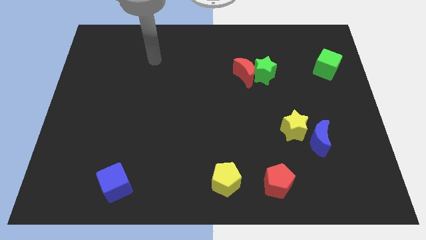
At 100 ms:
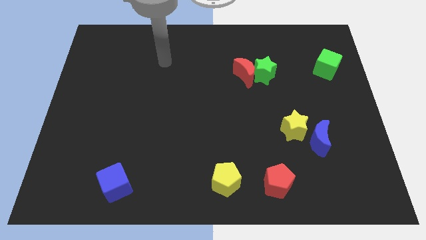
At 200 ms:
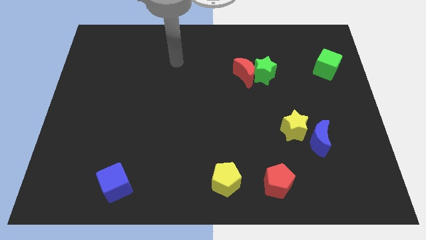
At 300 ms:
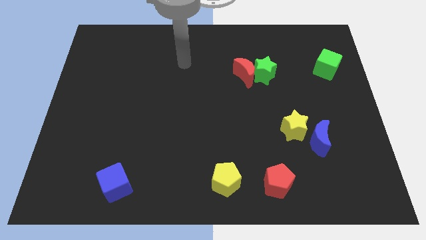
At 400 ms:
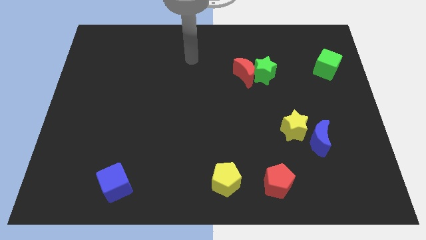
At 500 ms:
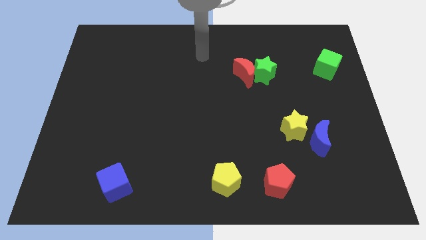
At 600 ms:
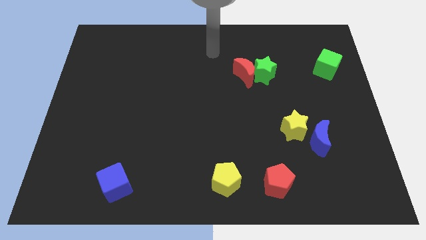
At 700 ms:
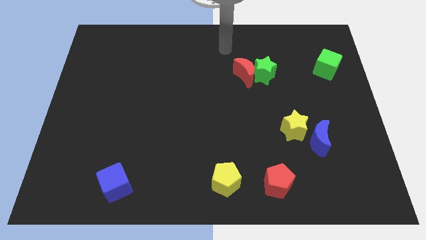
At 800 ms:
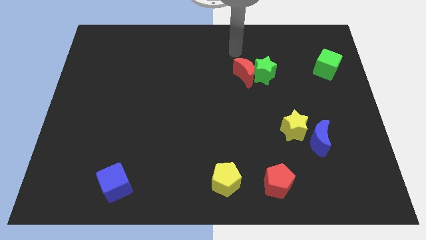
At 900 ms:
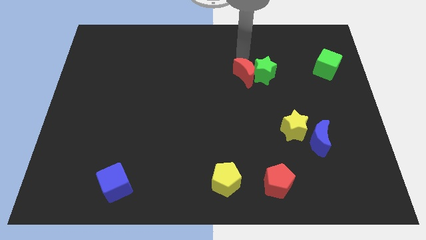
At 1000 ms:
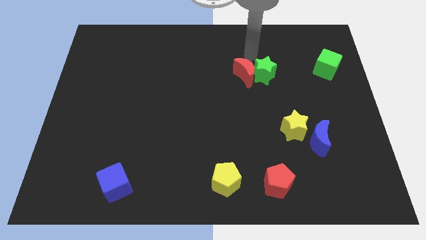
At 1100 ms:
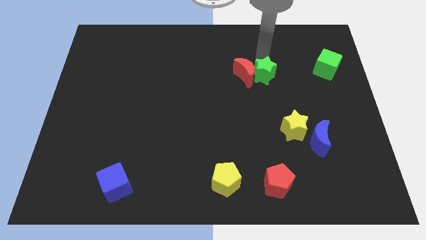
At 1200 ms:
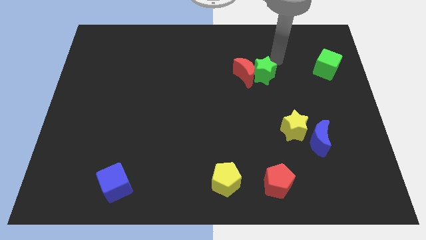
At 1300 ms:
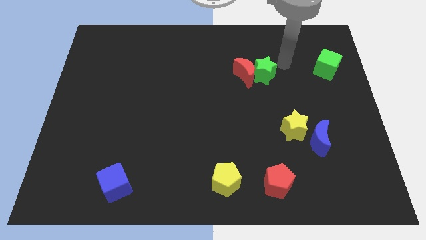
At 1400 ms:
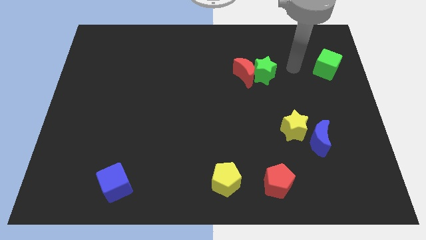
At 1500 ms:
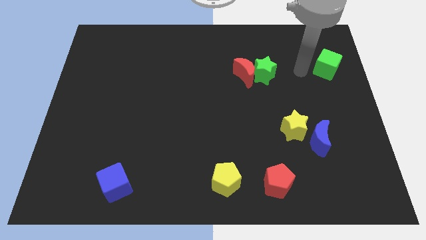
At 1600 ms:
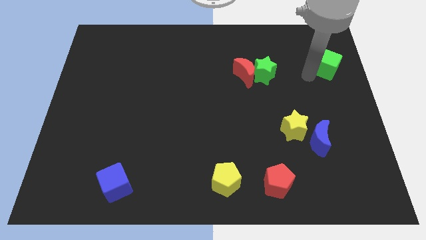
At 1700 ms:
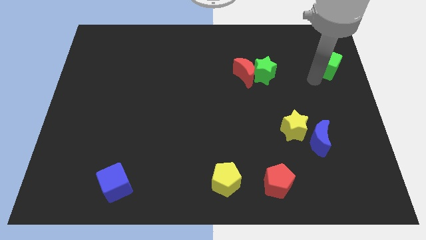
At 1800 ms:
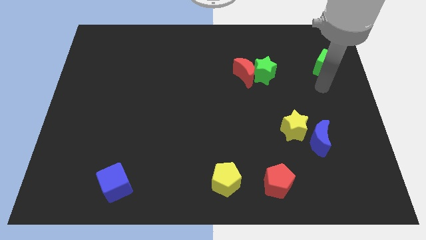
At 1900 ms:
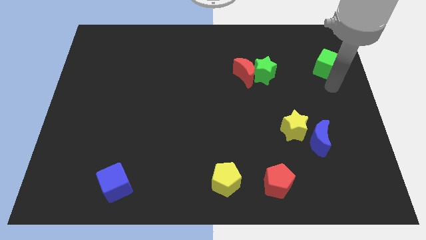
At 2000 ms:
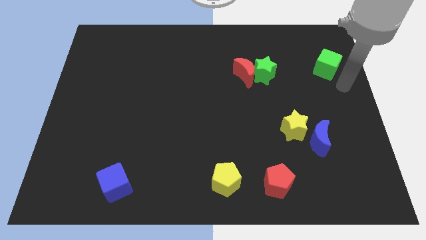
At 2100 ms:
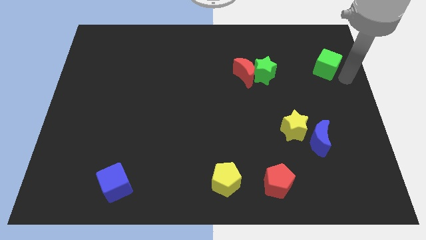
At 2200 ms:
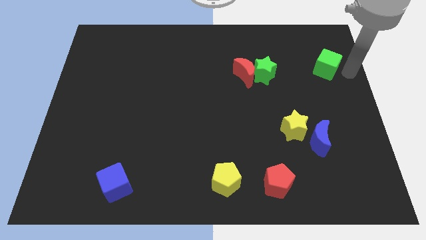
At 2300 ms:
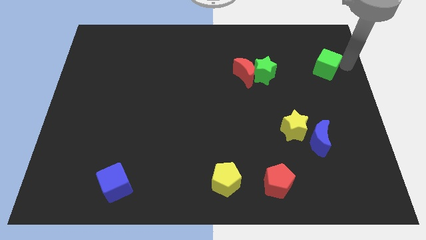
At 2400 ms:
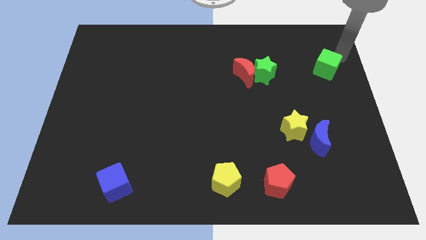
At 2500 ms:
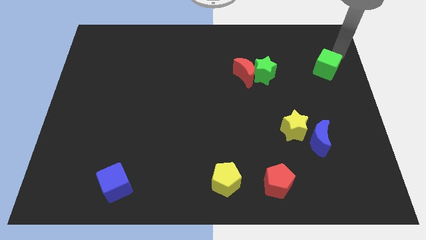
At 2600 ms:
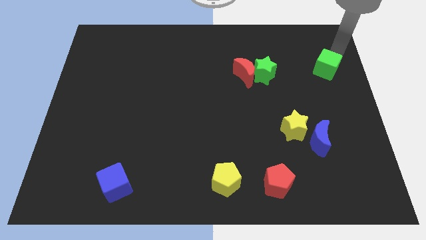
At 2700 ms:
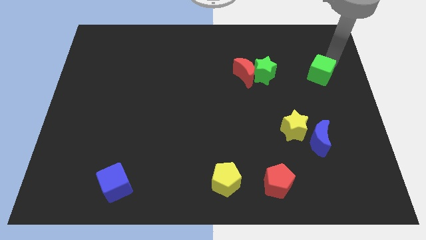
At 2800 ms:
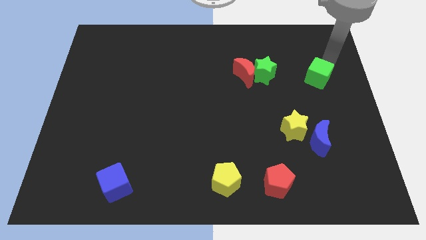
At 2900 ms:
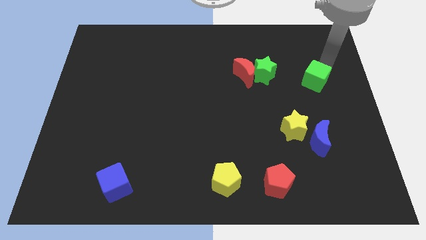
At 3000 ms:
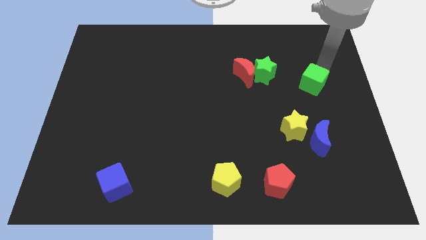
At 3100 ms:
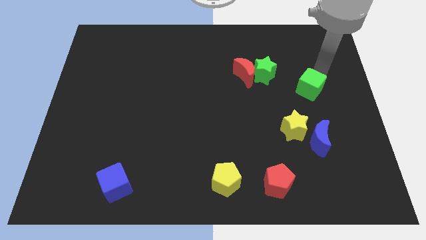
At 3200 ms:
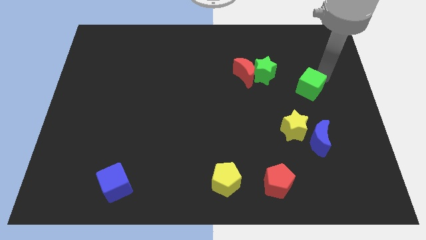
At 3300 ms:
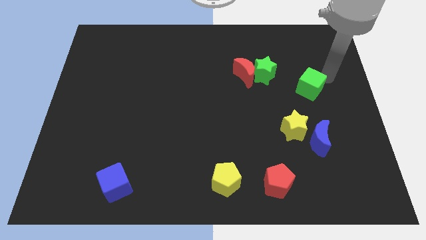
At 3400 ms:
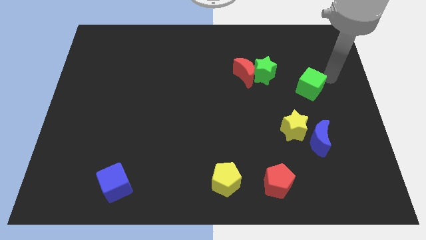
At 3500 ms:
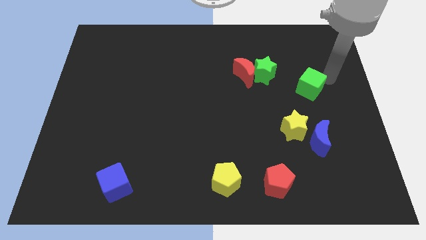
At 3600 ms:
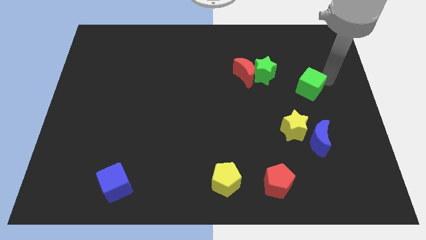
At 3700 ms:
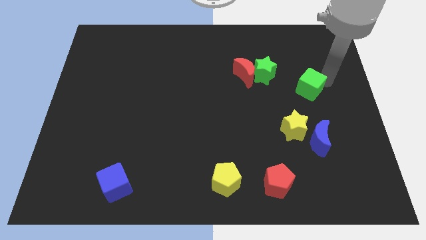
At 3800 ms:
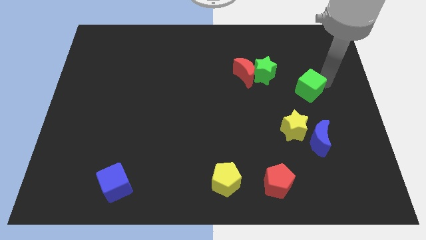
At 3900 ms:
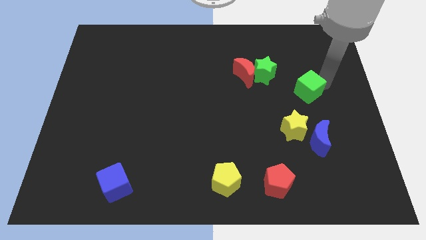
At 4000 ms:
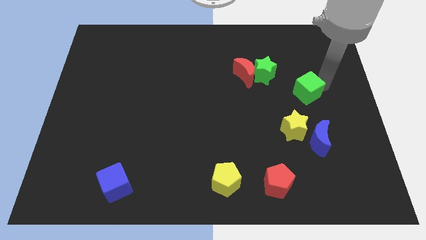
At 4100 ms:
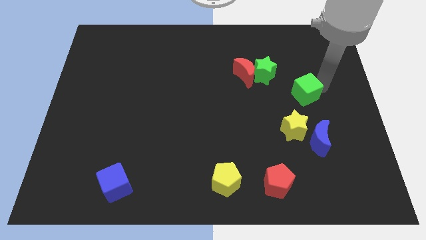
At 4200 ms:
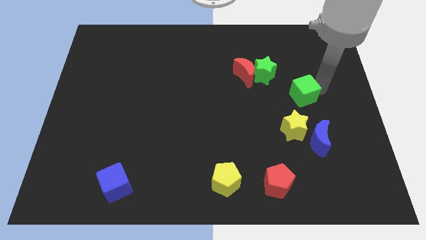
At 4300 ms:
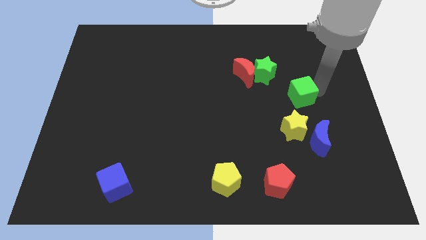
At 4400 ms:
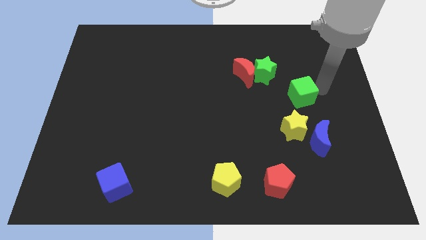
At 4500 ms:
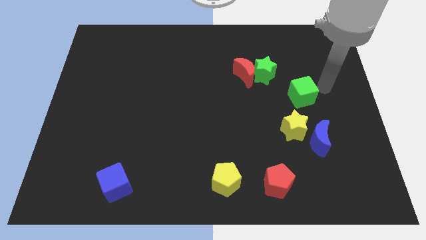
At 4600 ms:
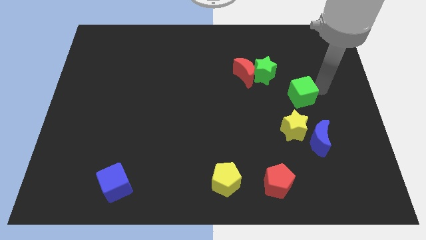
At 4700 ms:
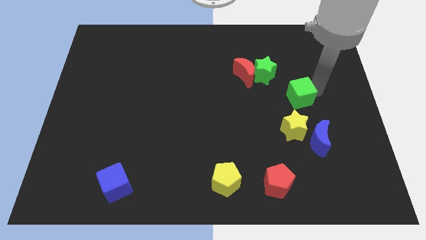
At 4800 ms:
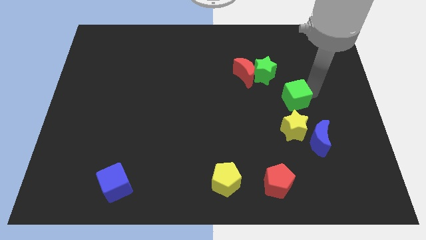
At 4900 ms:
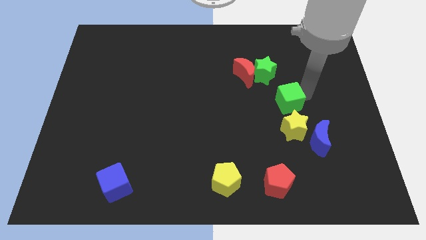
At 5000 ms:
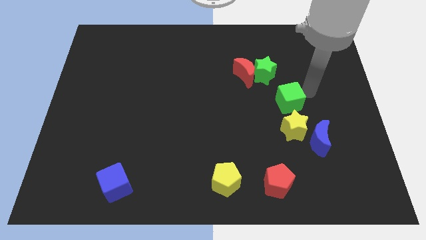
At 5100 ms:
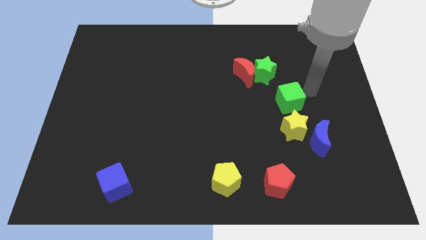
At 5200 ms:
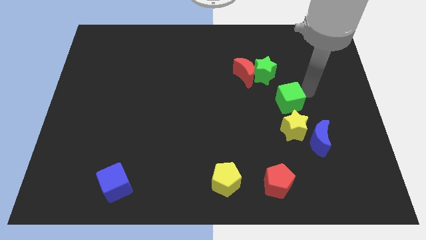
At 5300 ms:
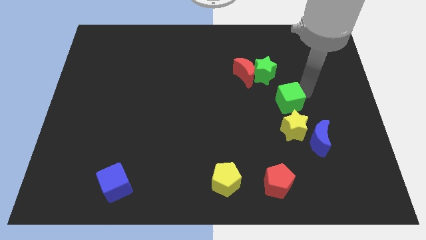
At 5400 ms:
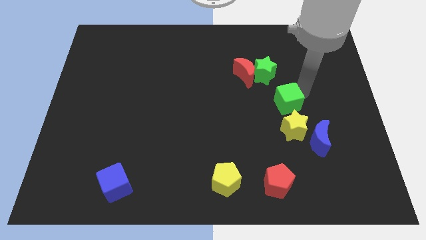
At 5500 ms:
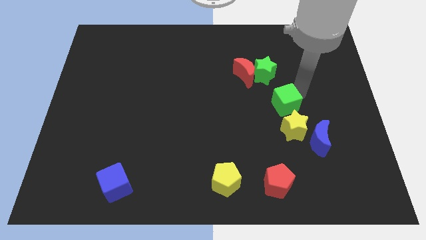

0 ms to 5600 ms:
push the green cube to the top left side of the yellow star

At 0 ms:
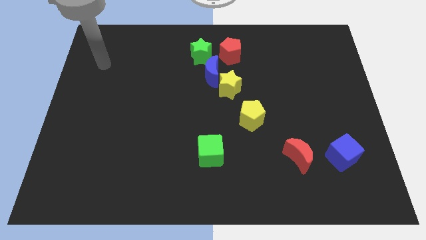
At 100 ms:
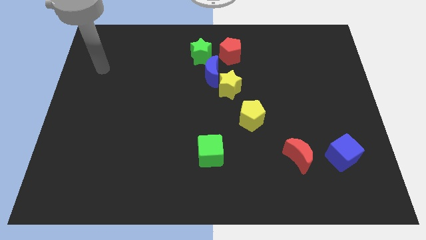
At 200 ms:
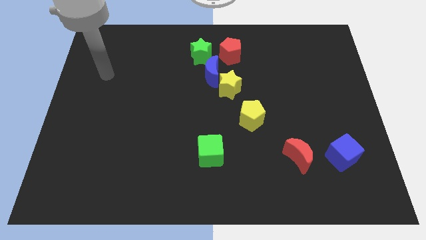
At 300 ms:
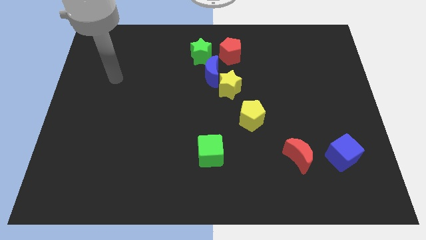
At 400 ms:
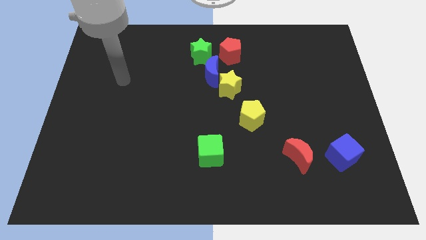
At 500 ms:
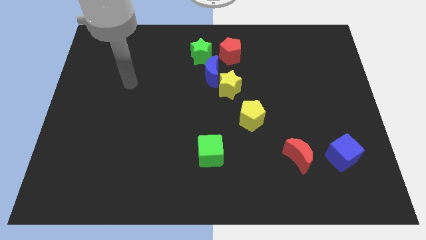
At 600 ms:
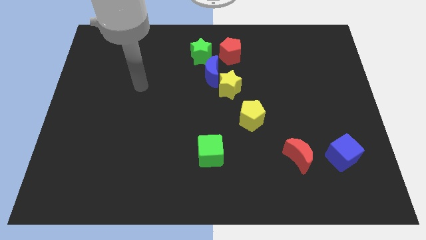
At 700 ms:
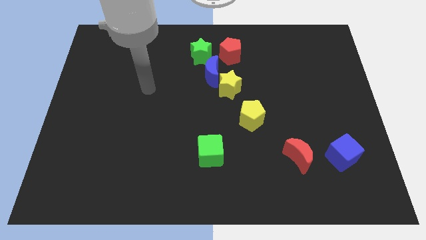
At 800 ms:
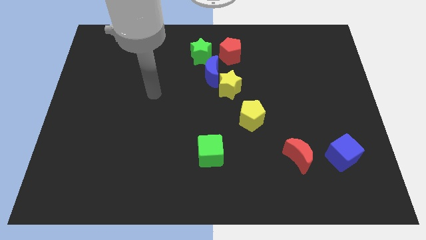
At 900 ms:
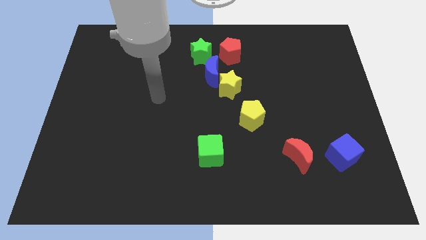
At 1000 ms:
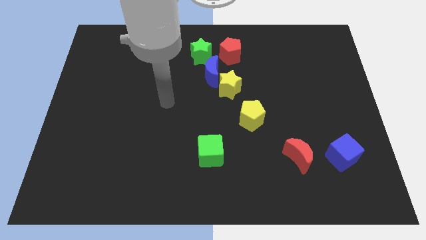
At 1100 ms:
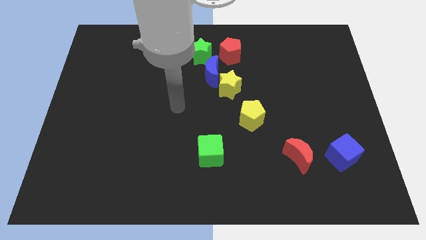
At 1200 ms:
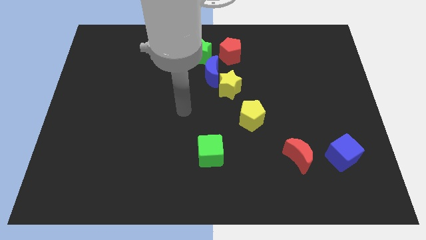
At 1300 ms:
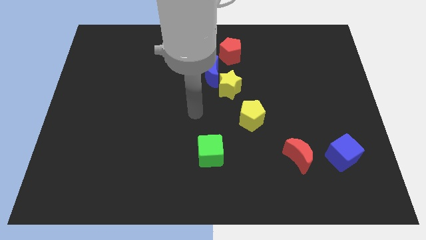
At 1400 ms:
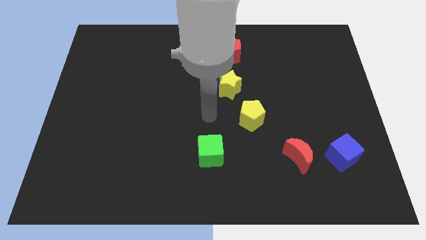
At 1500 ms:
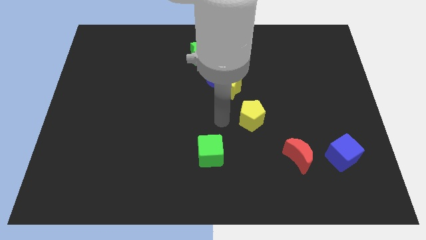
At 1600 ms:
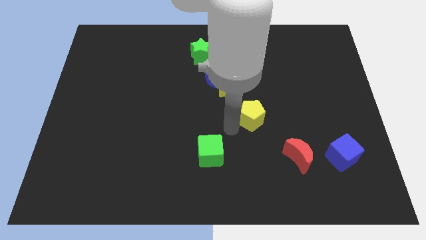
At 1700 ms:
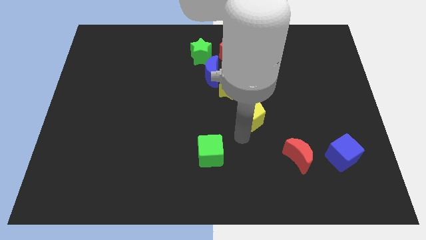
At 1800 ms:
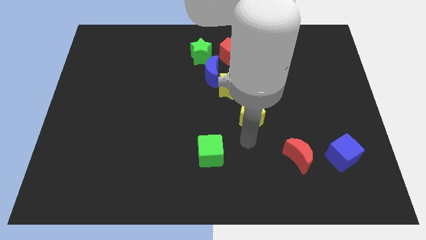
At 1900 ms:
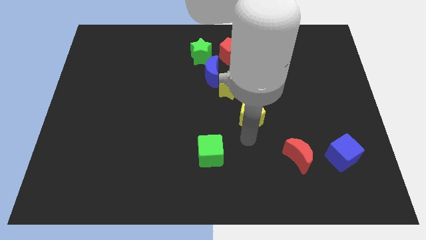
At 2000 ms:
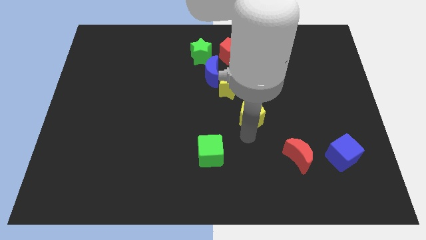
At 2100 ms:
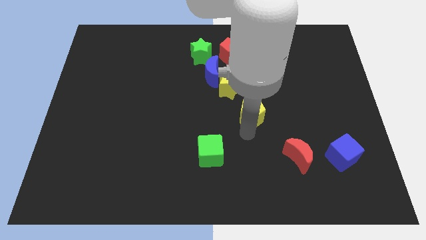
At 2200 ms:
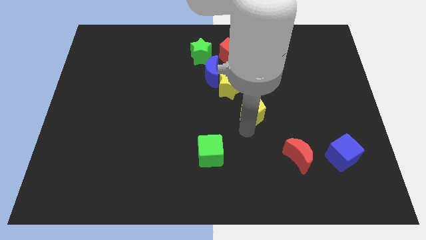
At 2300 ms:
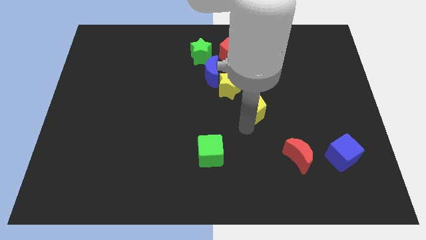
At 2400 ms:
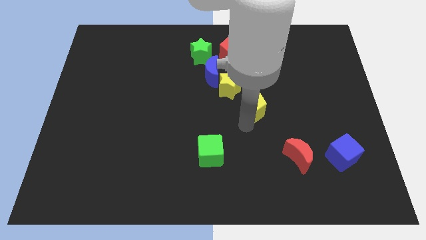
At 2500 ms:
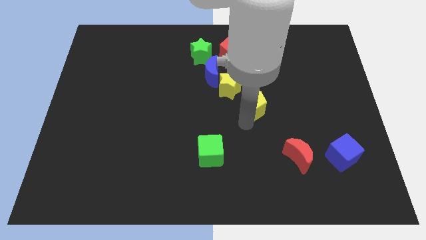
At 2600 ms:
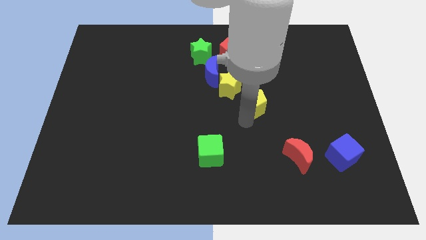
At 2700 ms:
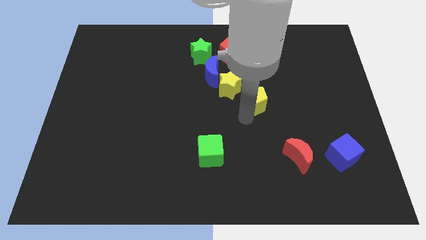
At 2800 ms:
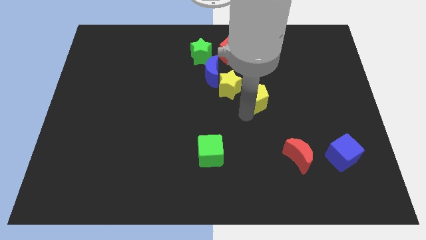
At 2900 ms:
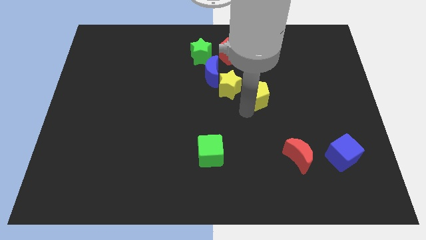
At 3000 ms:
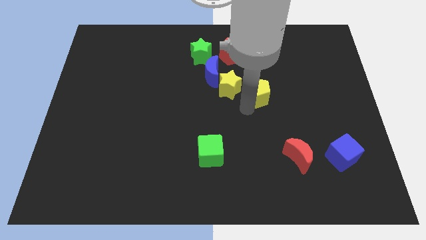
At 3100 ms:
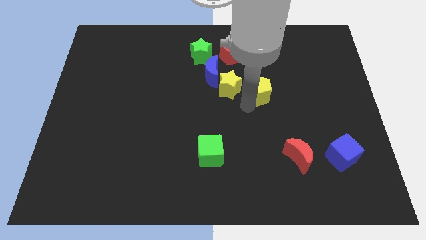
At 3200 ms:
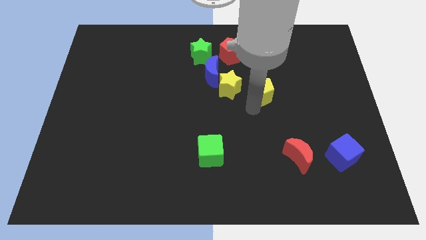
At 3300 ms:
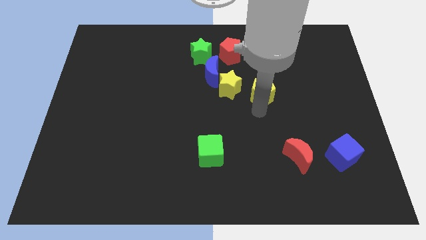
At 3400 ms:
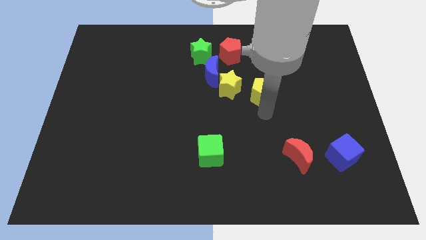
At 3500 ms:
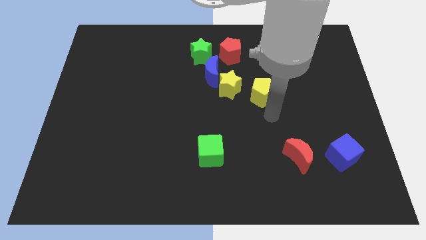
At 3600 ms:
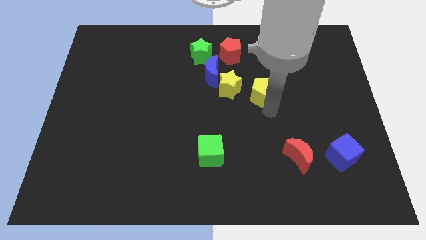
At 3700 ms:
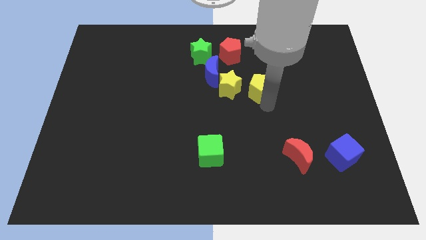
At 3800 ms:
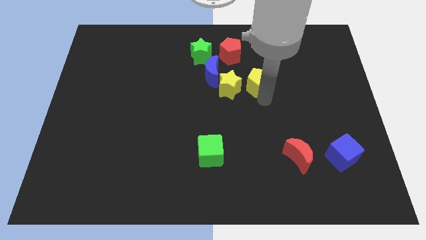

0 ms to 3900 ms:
move the yellow pentagon to the right side of the blue moon
